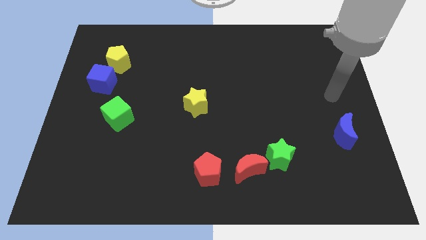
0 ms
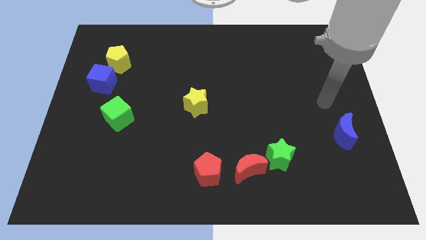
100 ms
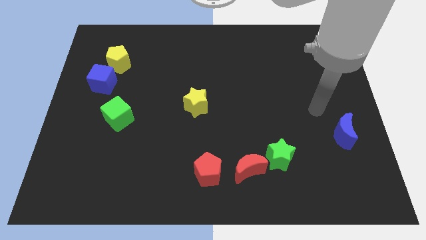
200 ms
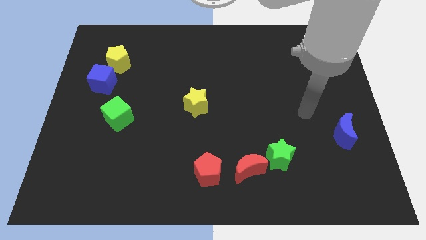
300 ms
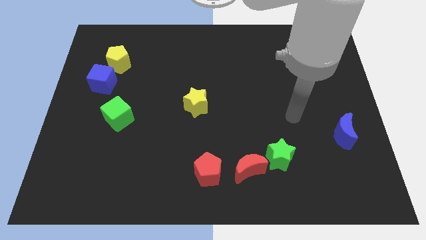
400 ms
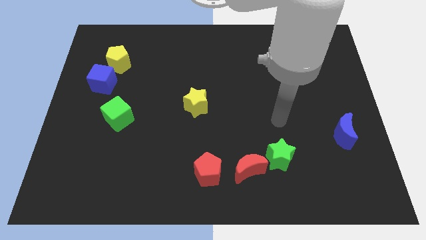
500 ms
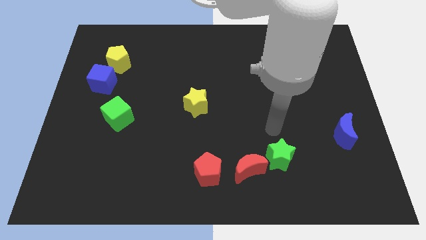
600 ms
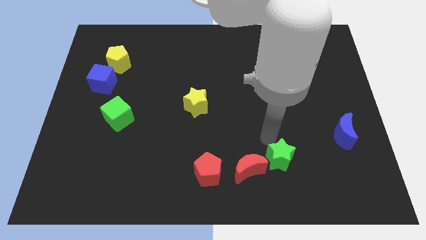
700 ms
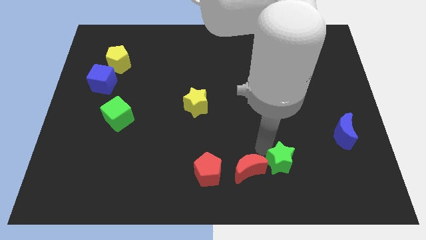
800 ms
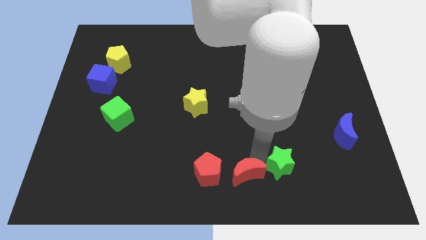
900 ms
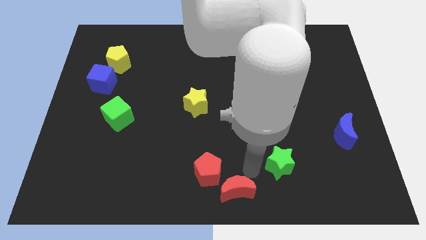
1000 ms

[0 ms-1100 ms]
pull the green star apart from the red moon

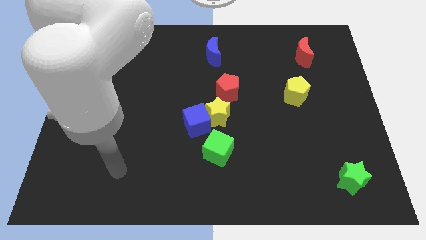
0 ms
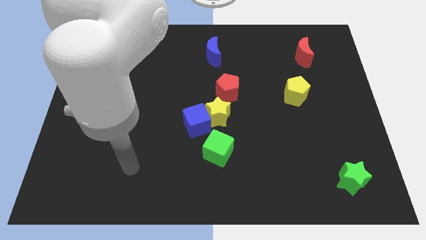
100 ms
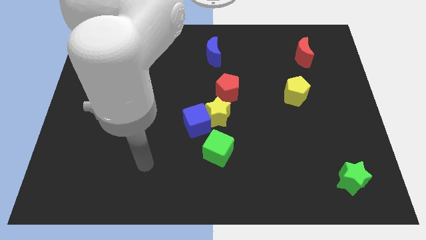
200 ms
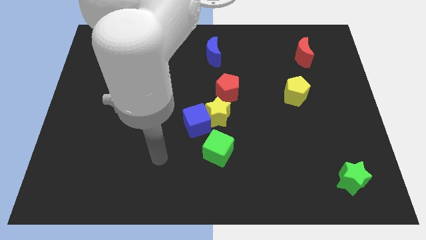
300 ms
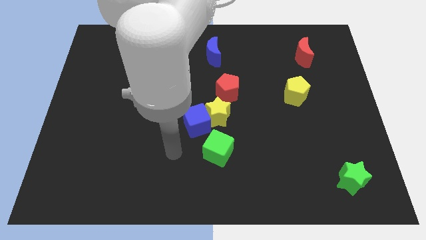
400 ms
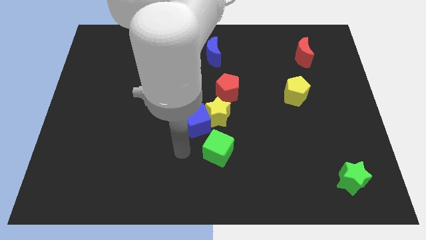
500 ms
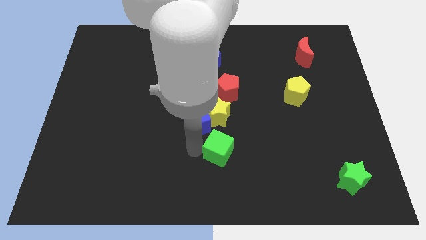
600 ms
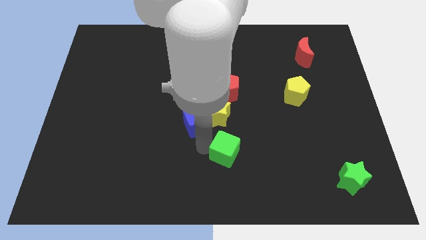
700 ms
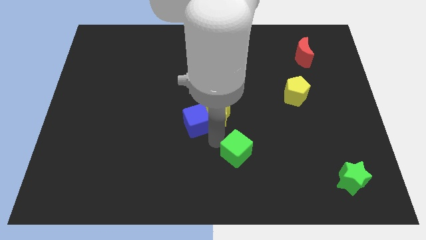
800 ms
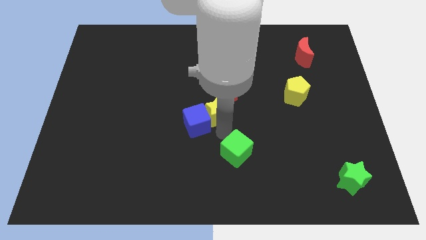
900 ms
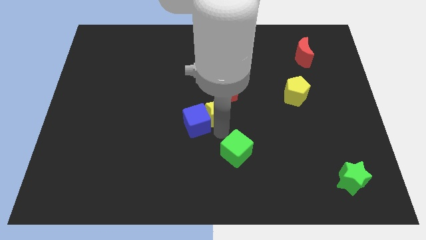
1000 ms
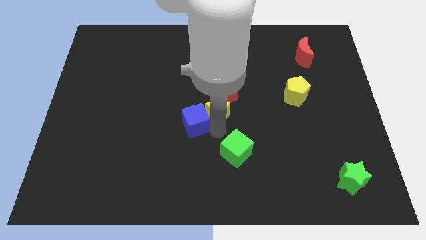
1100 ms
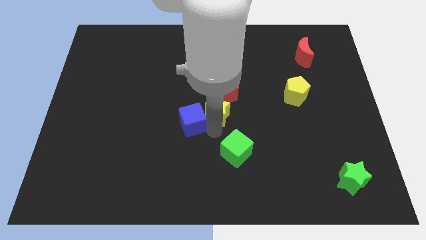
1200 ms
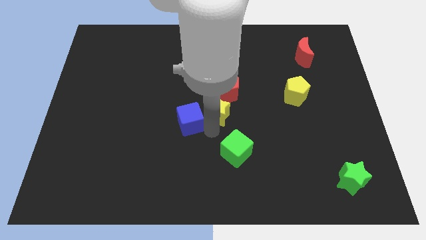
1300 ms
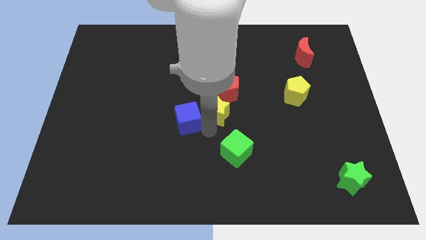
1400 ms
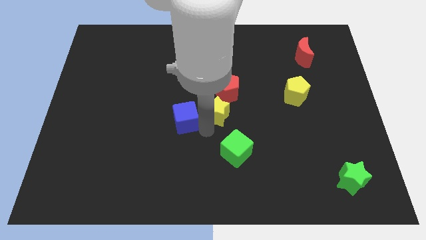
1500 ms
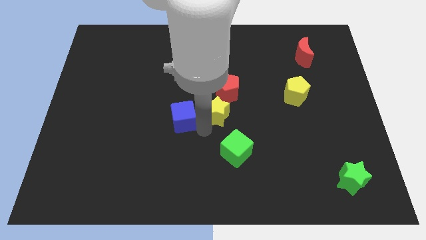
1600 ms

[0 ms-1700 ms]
separate the blue cube from the yellow star and green cube

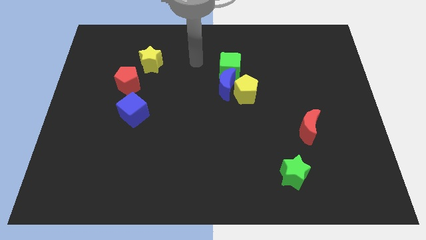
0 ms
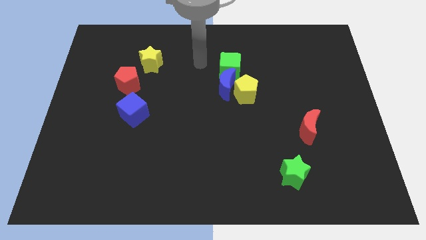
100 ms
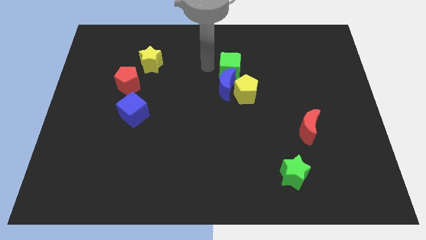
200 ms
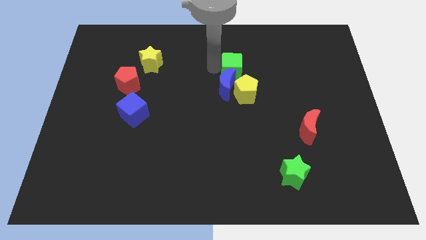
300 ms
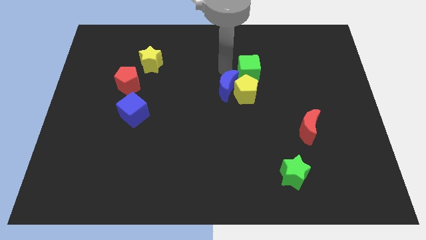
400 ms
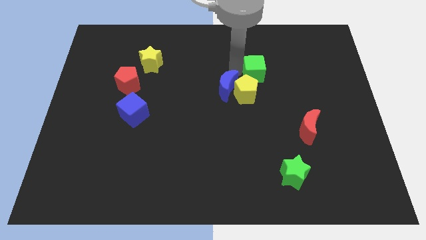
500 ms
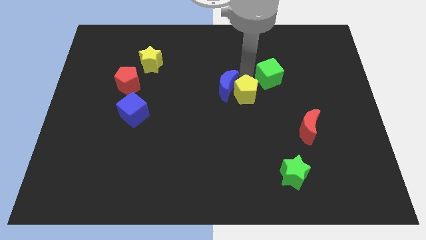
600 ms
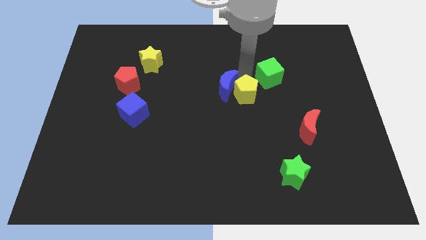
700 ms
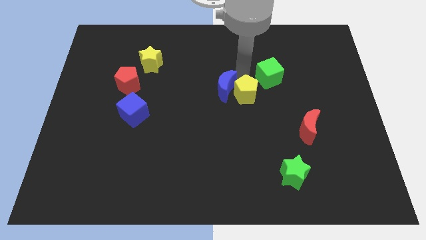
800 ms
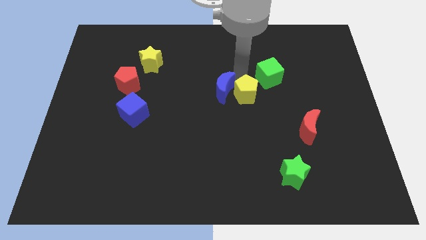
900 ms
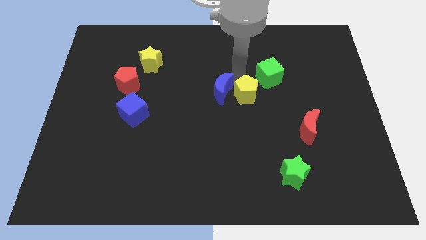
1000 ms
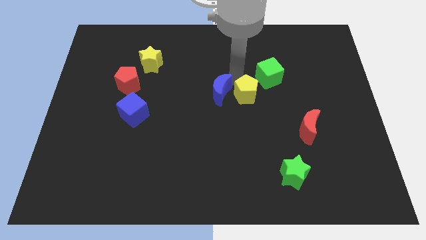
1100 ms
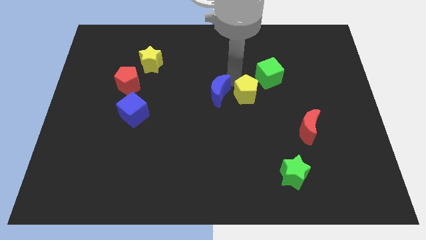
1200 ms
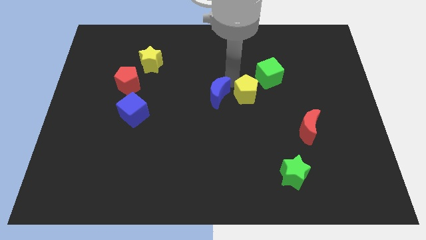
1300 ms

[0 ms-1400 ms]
move the blue moon away from the yellow pentagon and green cube

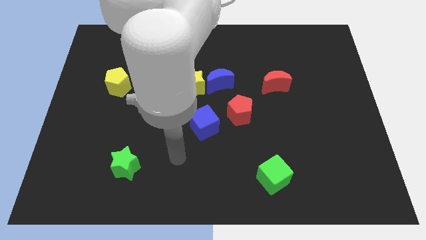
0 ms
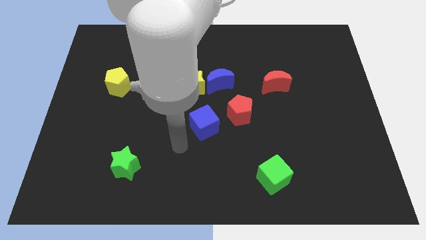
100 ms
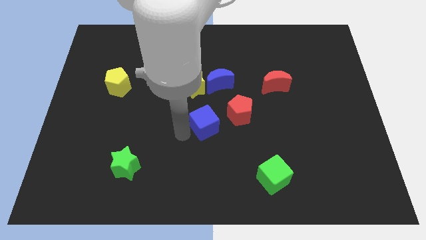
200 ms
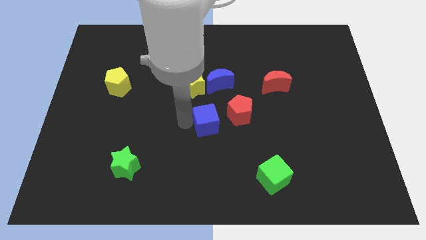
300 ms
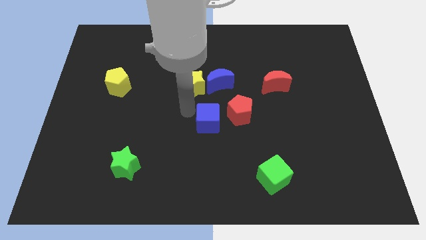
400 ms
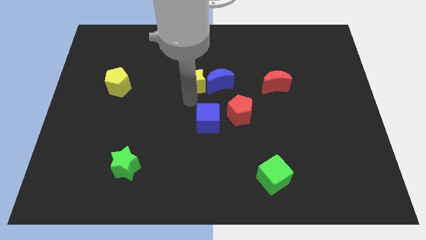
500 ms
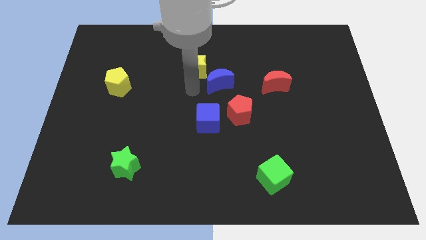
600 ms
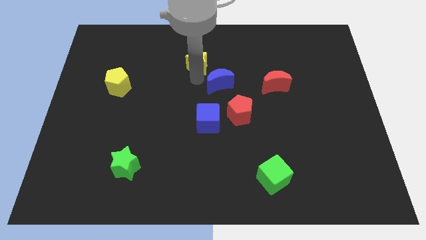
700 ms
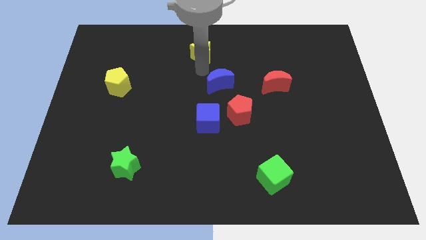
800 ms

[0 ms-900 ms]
separate the blue moon from the yellow star

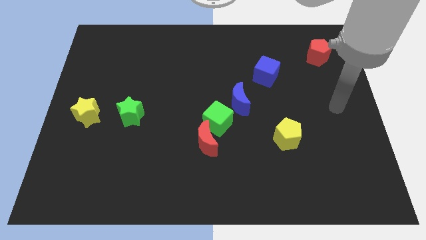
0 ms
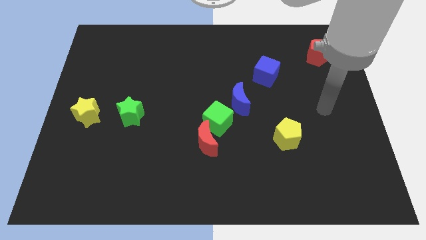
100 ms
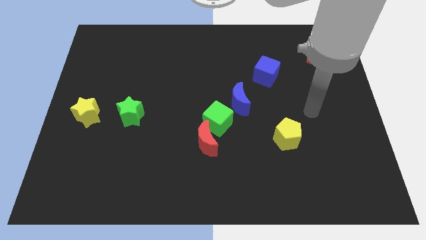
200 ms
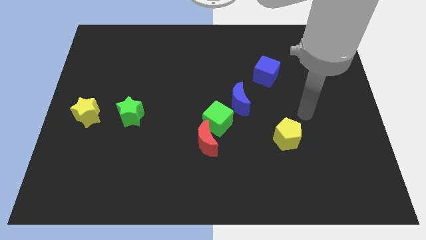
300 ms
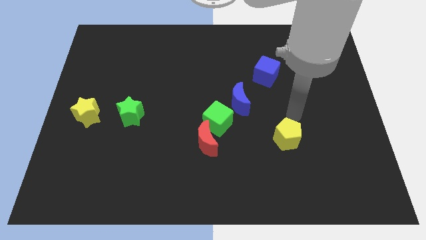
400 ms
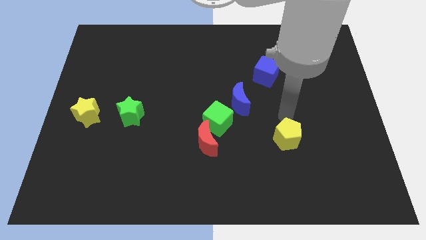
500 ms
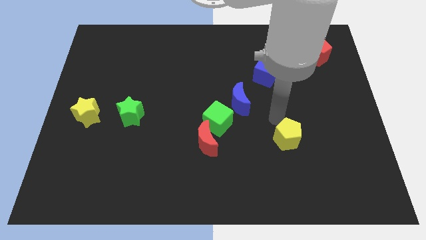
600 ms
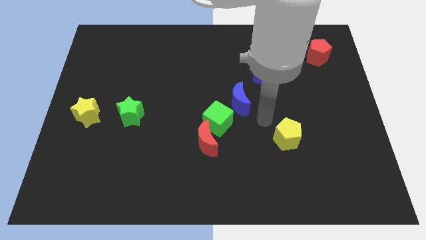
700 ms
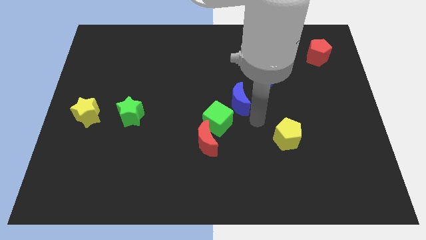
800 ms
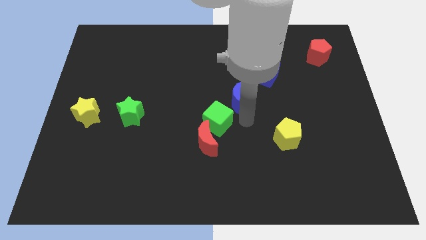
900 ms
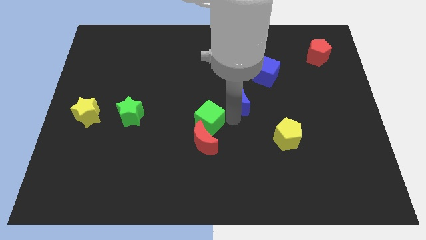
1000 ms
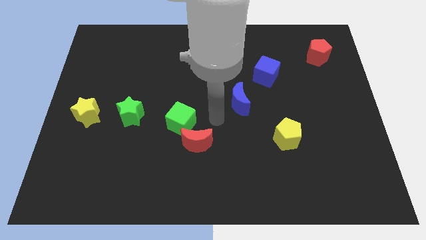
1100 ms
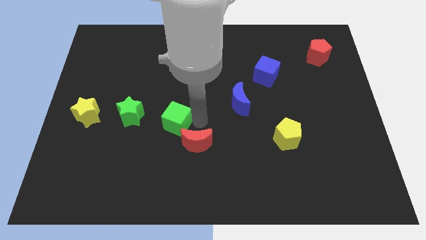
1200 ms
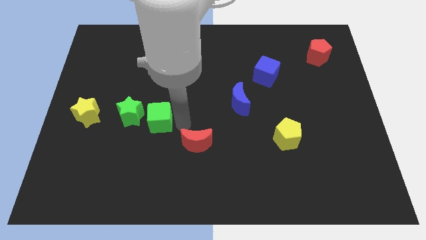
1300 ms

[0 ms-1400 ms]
separate the red moon from the green cube

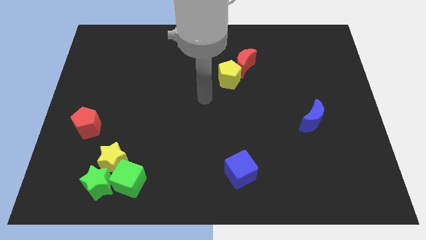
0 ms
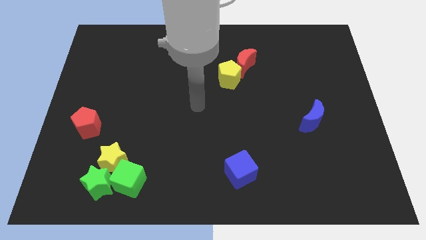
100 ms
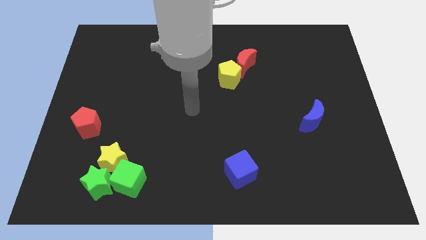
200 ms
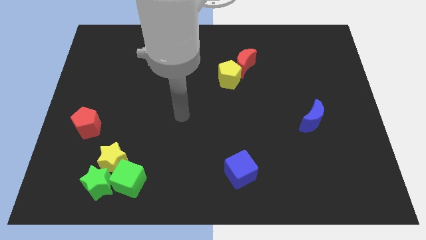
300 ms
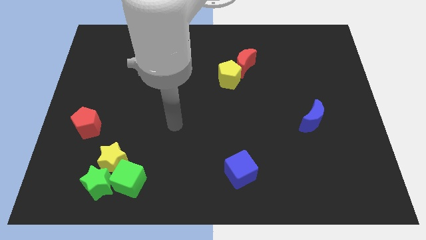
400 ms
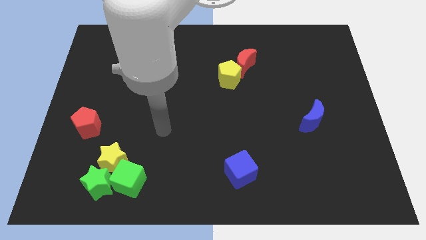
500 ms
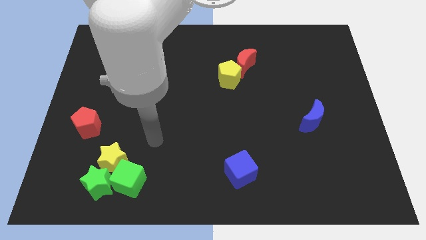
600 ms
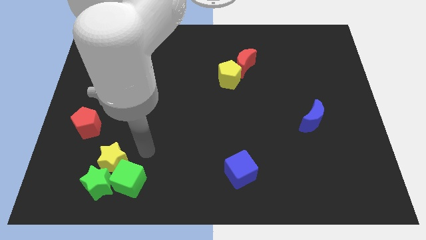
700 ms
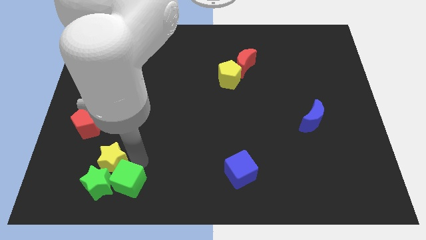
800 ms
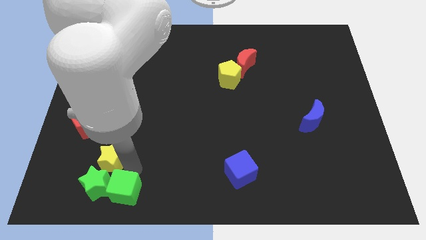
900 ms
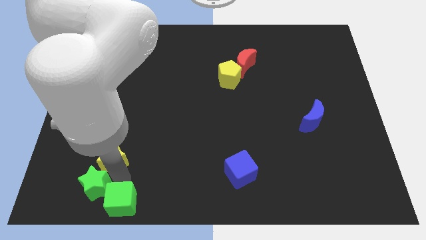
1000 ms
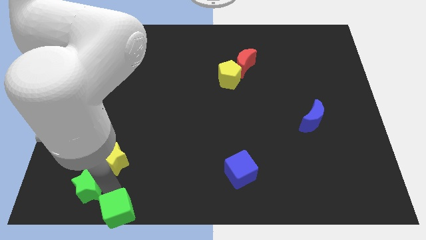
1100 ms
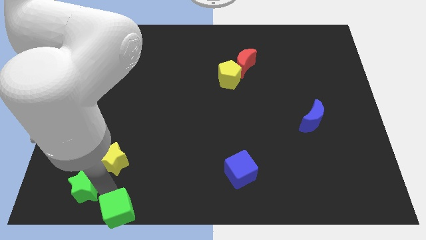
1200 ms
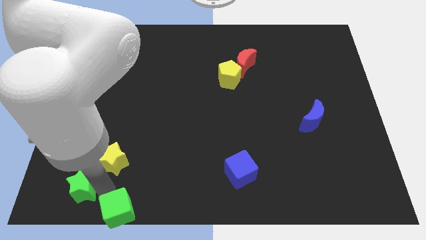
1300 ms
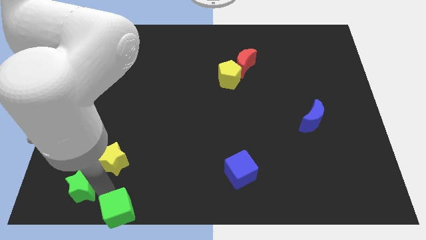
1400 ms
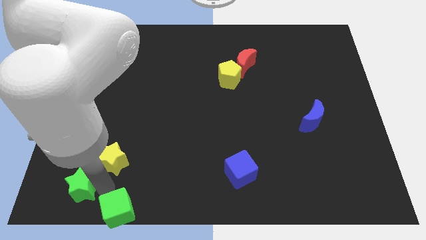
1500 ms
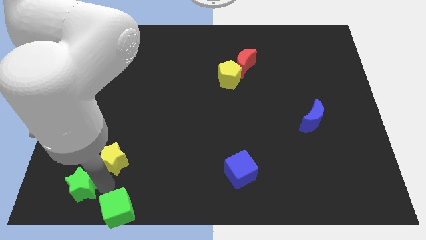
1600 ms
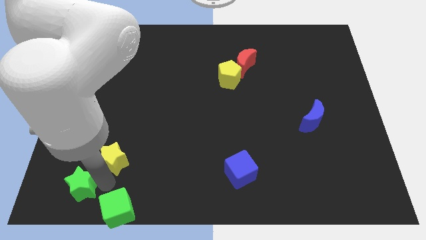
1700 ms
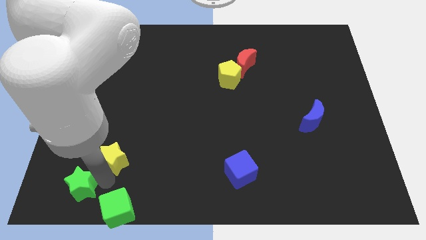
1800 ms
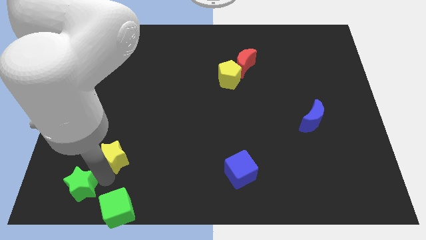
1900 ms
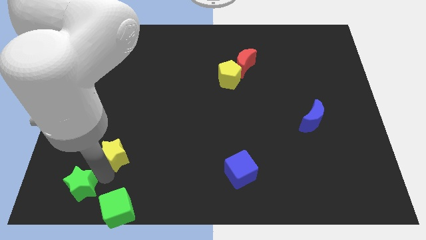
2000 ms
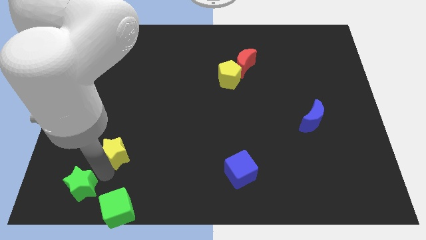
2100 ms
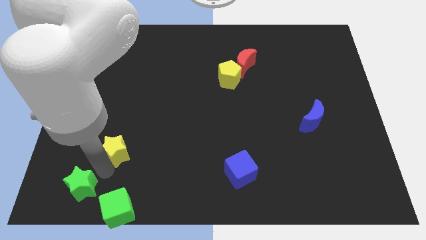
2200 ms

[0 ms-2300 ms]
separate the yellow star from the green star and green cube

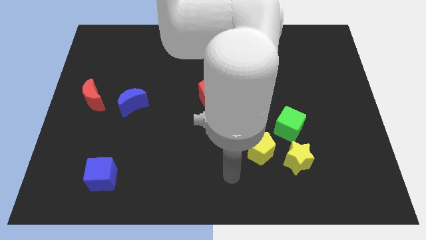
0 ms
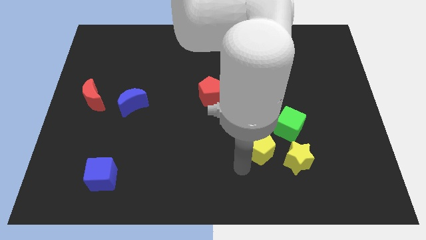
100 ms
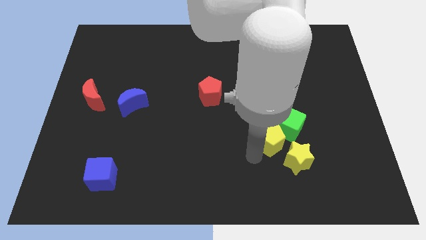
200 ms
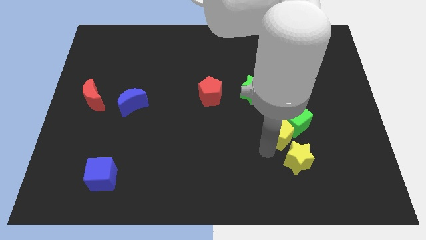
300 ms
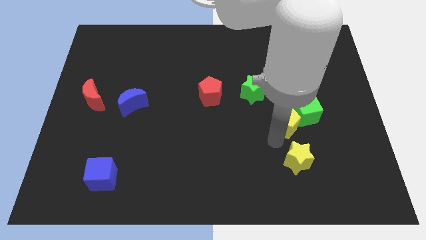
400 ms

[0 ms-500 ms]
separate the yellow star from the yellow pentagon and green cube

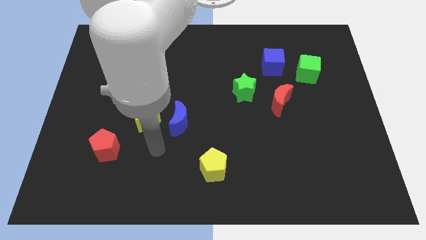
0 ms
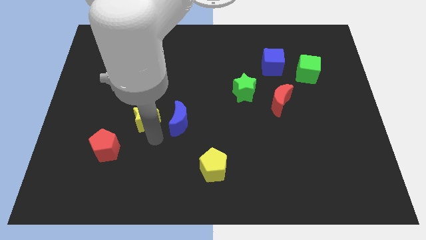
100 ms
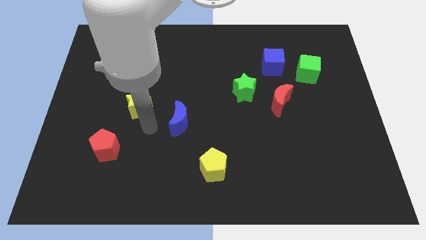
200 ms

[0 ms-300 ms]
pull the blue moon apart from the yellow star
